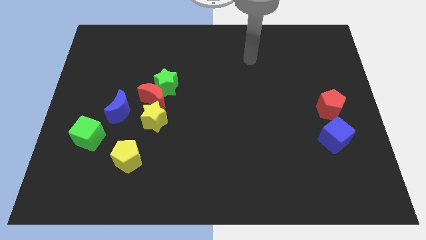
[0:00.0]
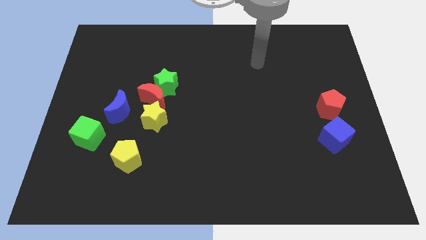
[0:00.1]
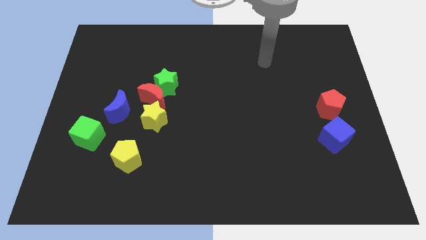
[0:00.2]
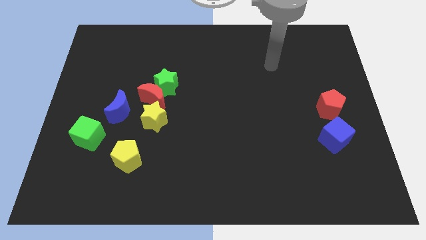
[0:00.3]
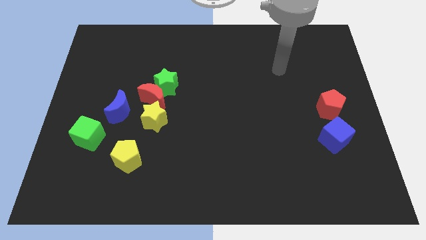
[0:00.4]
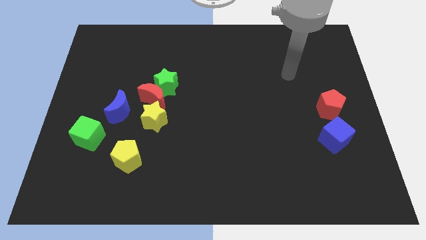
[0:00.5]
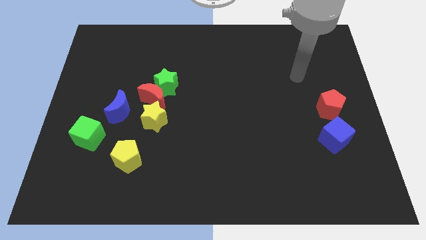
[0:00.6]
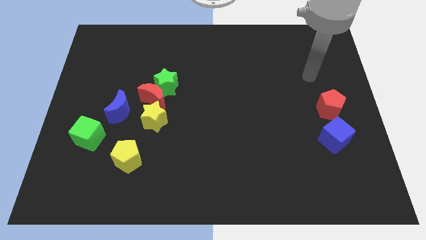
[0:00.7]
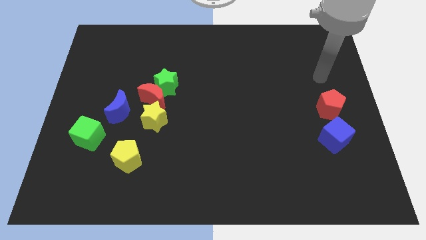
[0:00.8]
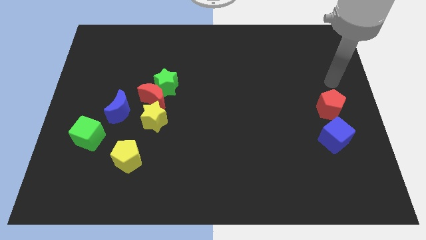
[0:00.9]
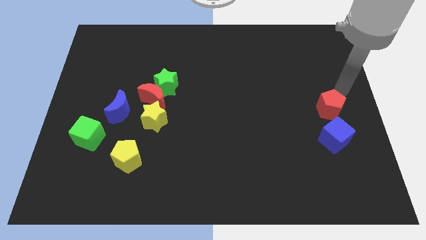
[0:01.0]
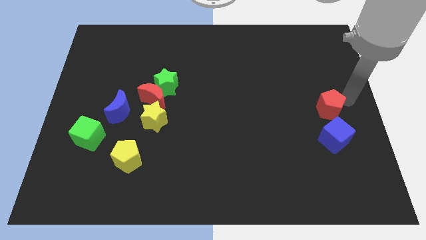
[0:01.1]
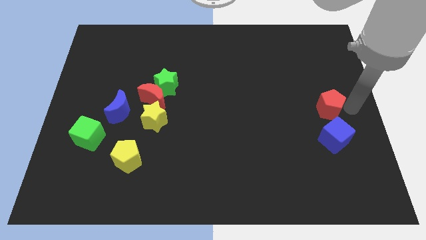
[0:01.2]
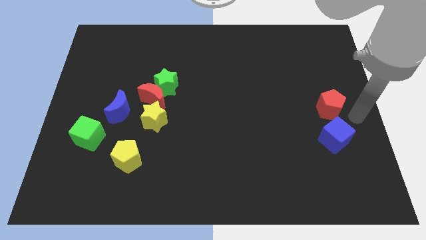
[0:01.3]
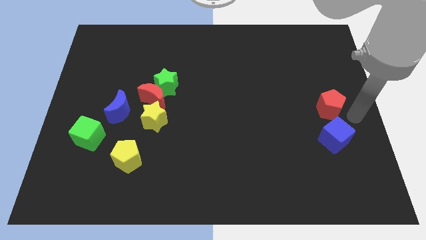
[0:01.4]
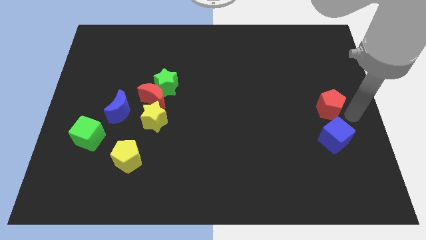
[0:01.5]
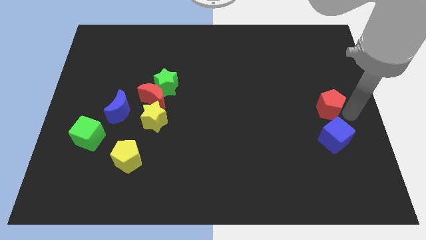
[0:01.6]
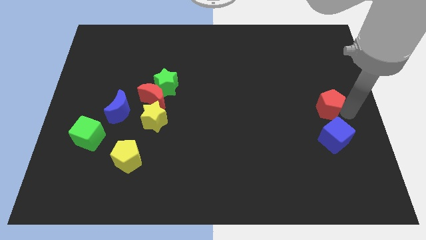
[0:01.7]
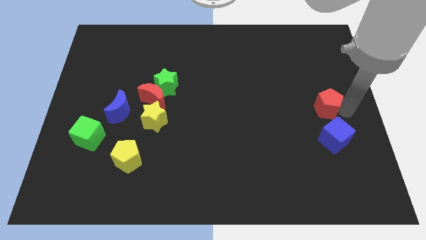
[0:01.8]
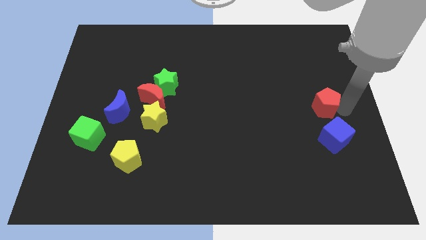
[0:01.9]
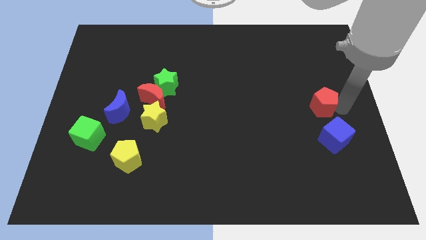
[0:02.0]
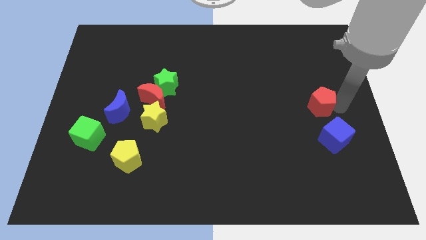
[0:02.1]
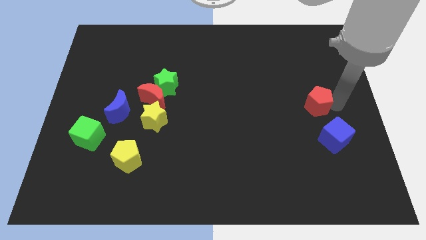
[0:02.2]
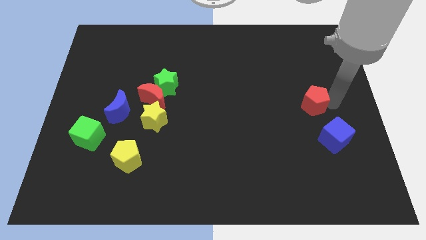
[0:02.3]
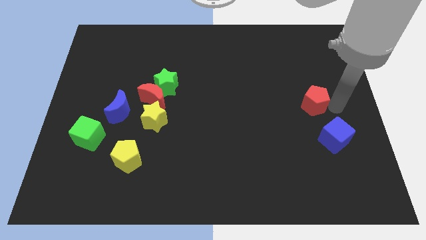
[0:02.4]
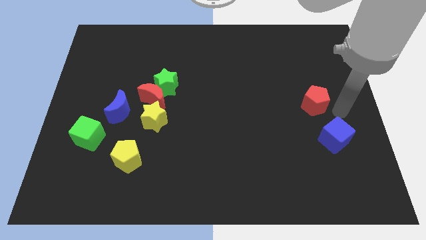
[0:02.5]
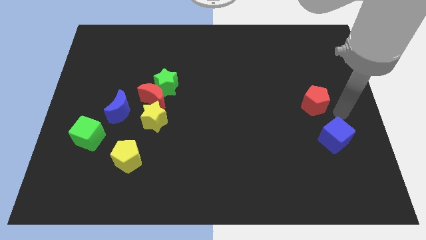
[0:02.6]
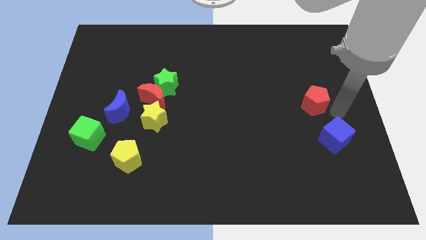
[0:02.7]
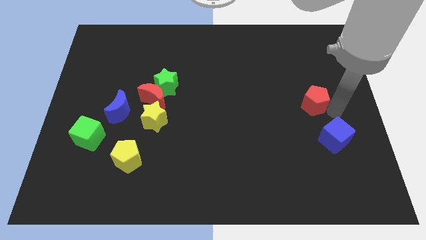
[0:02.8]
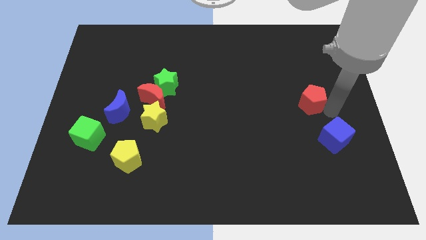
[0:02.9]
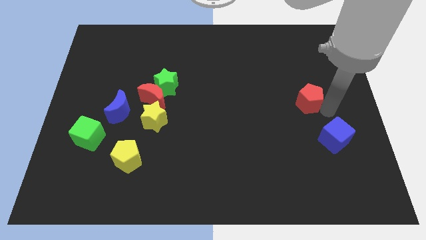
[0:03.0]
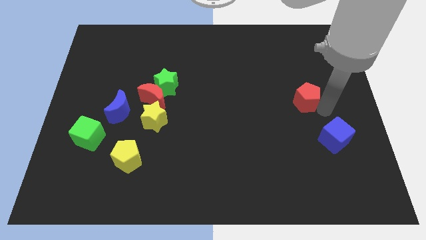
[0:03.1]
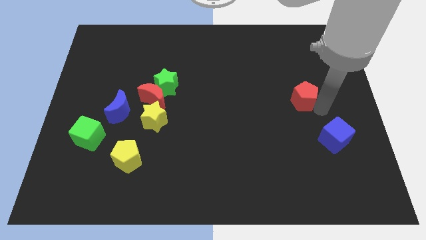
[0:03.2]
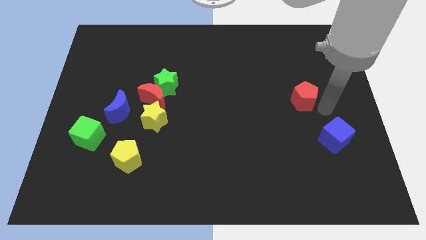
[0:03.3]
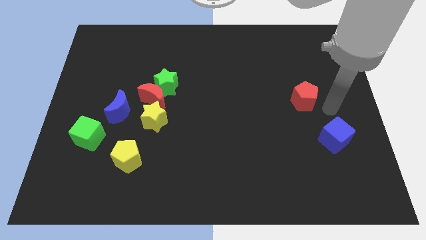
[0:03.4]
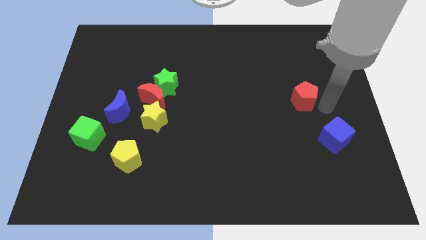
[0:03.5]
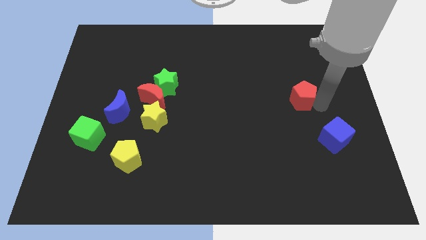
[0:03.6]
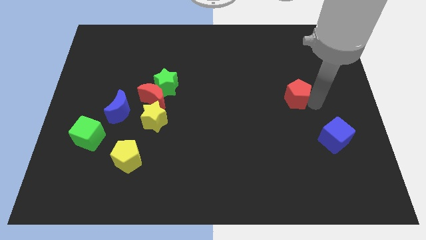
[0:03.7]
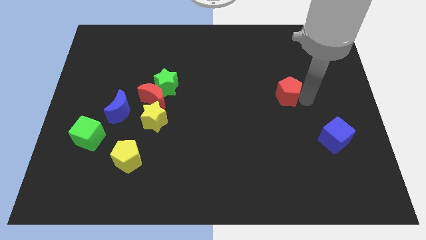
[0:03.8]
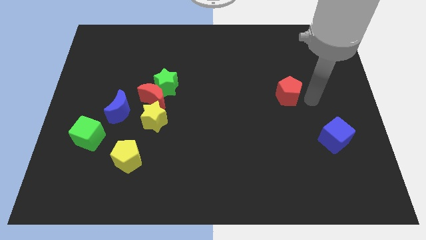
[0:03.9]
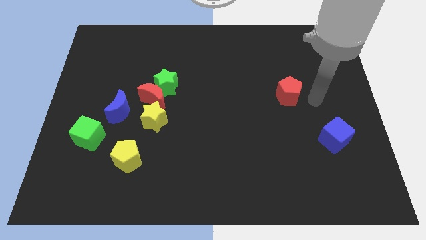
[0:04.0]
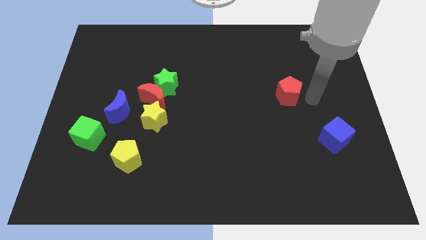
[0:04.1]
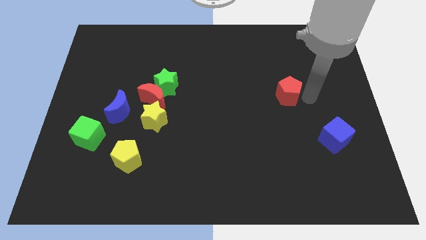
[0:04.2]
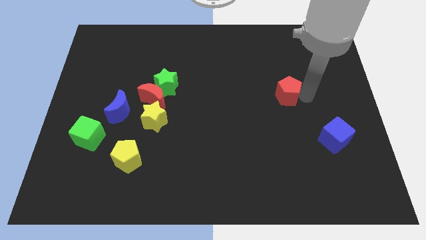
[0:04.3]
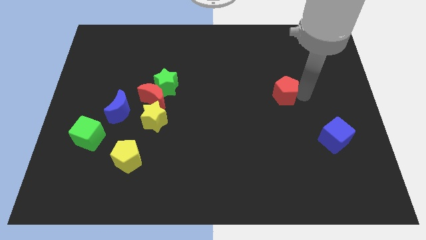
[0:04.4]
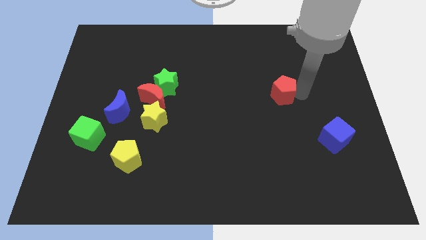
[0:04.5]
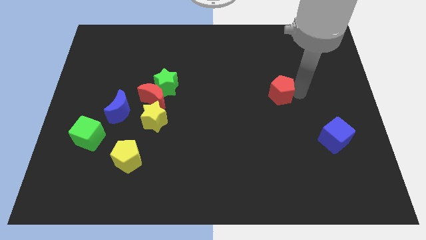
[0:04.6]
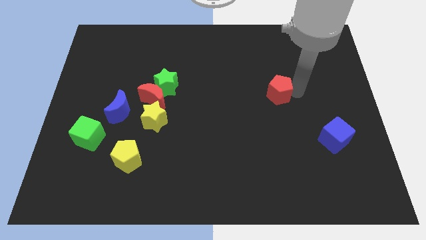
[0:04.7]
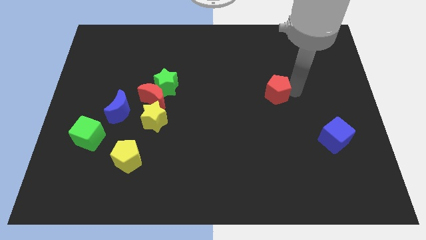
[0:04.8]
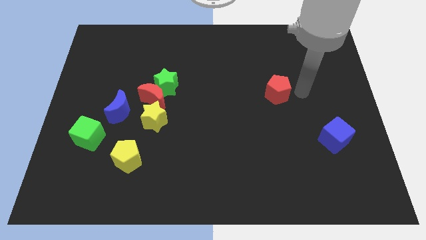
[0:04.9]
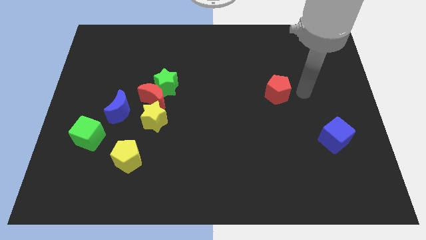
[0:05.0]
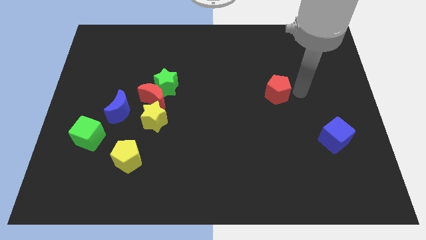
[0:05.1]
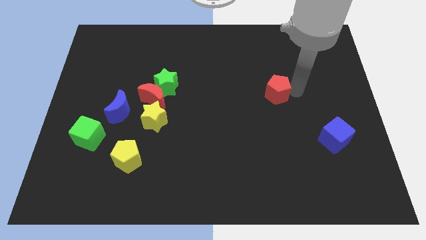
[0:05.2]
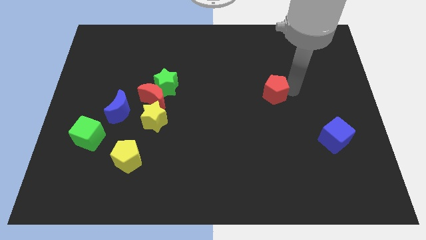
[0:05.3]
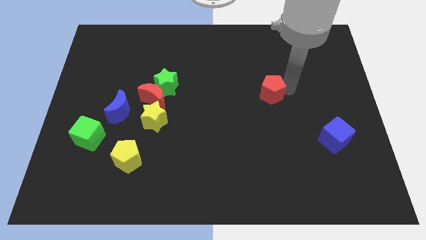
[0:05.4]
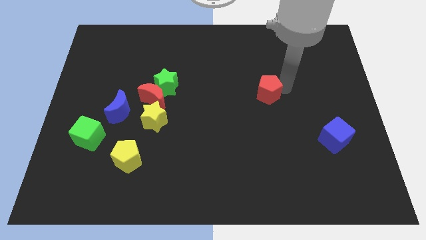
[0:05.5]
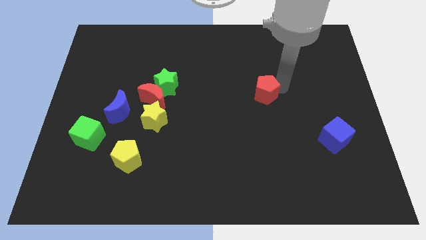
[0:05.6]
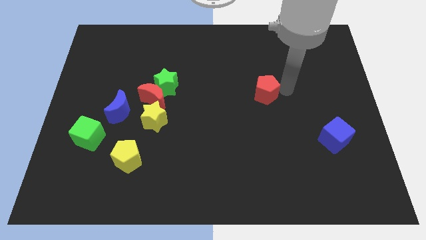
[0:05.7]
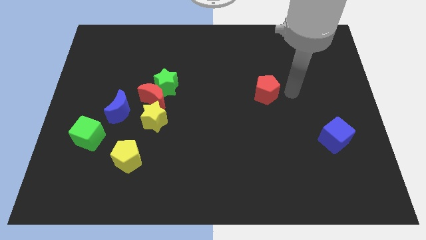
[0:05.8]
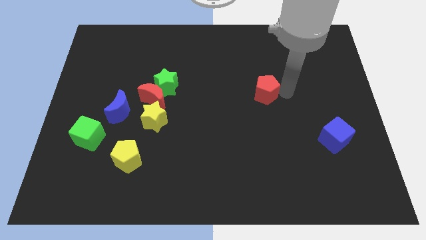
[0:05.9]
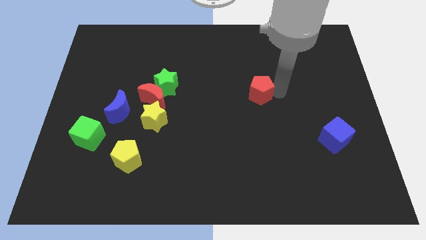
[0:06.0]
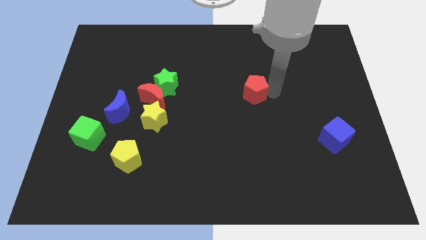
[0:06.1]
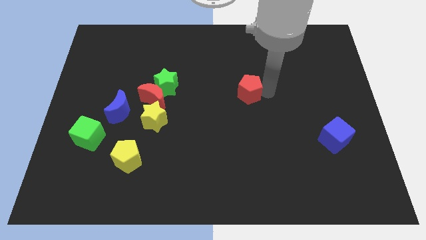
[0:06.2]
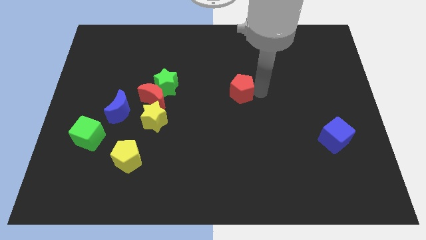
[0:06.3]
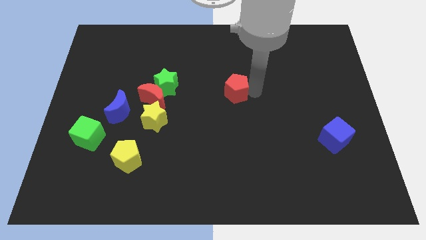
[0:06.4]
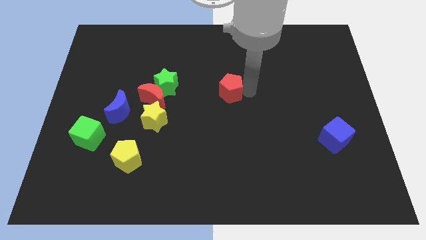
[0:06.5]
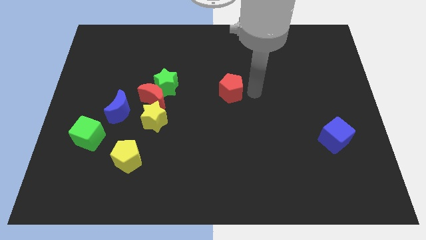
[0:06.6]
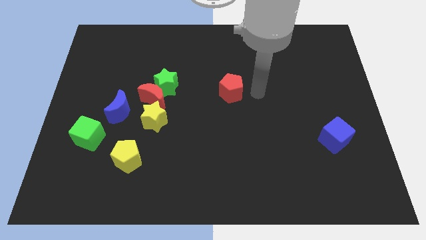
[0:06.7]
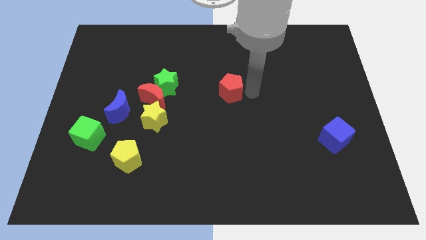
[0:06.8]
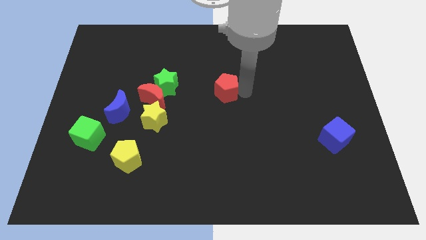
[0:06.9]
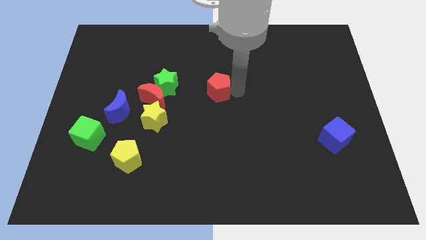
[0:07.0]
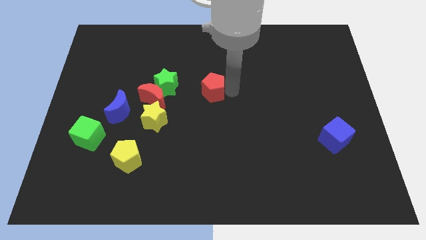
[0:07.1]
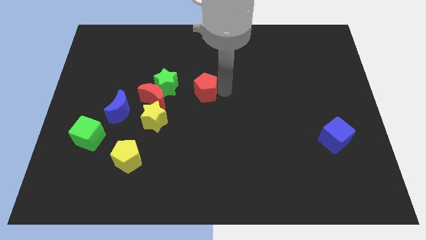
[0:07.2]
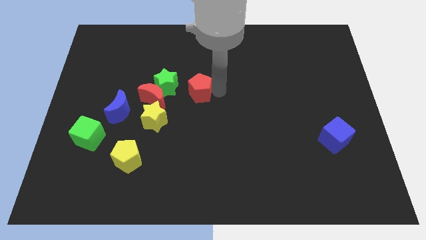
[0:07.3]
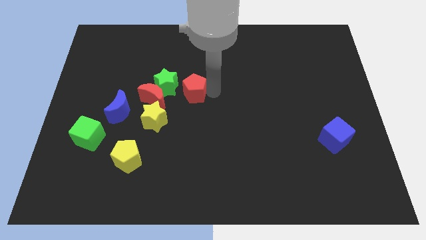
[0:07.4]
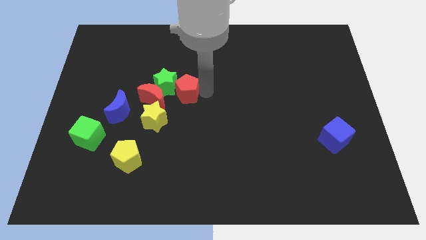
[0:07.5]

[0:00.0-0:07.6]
slide the red pentagon close to the green star
